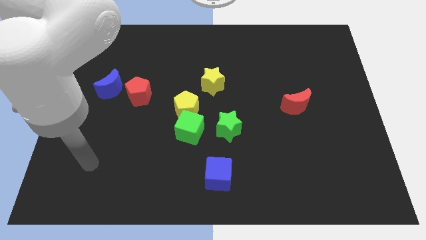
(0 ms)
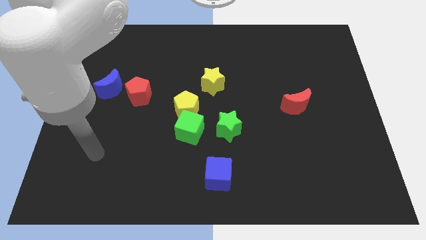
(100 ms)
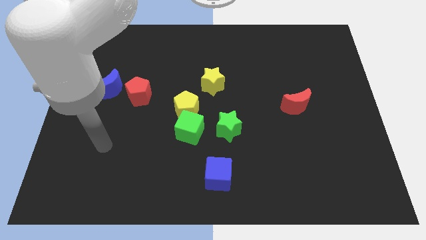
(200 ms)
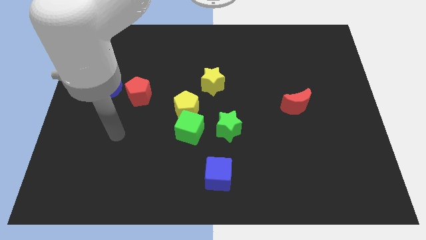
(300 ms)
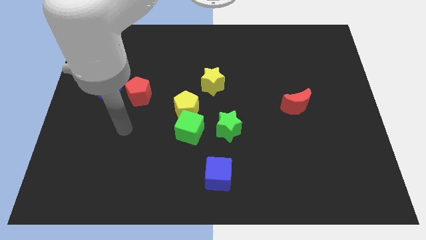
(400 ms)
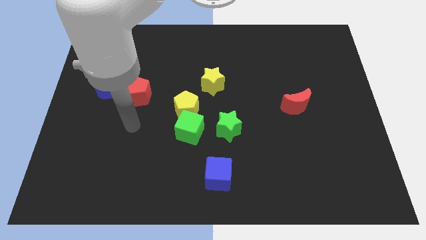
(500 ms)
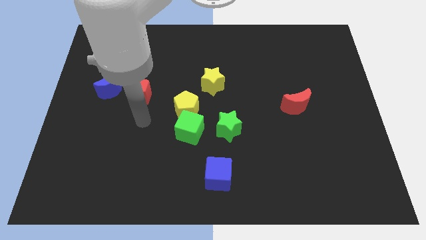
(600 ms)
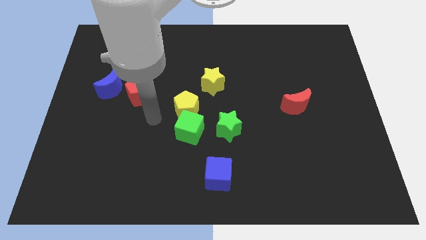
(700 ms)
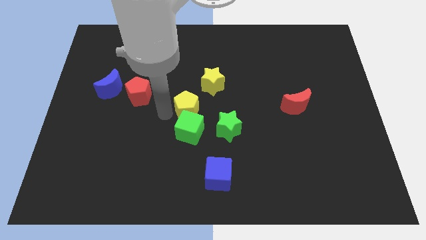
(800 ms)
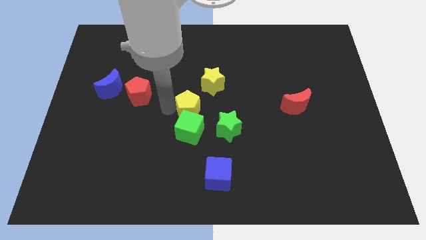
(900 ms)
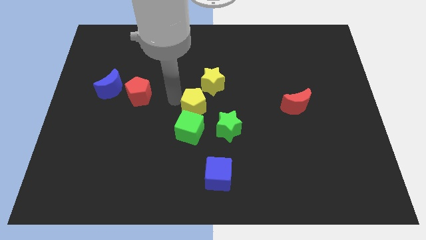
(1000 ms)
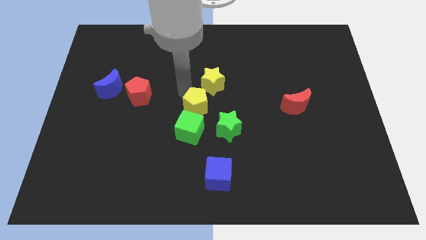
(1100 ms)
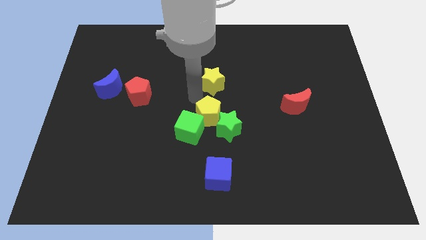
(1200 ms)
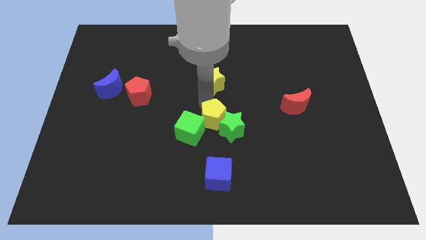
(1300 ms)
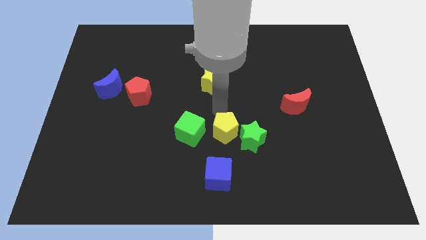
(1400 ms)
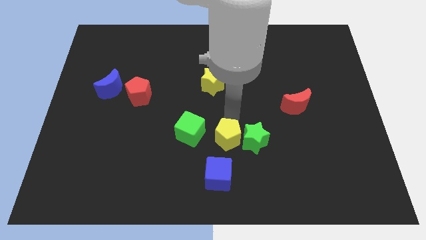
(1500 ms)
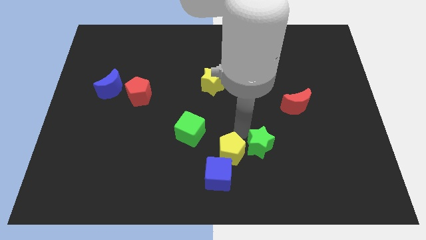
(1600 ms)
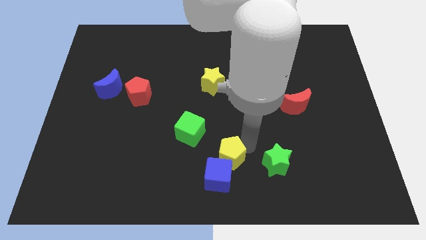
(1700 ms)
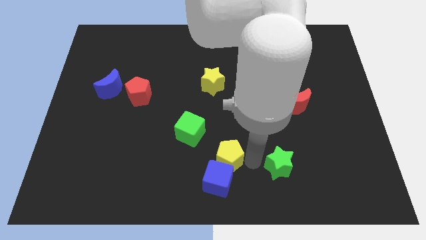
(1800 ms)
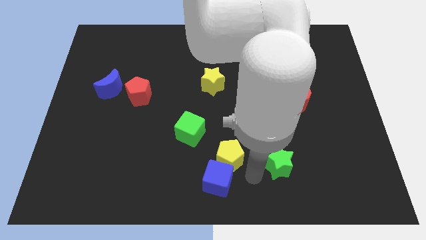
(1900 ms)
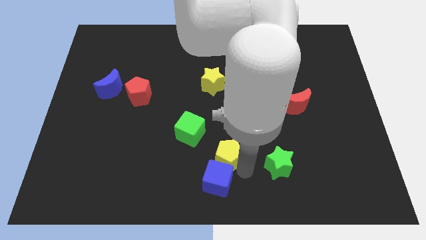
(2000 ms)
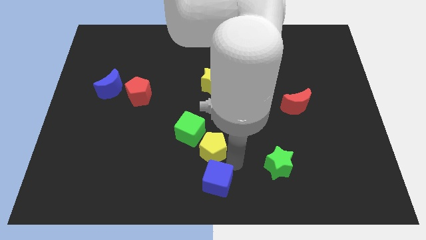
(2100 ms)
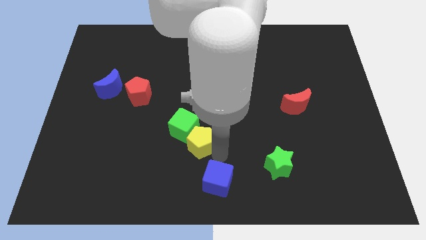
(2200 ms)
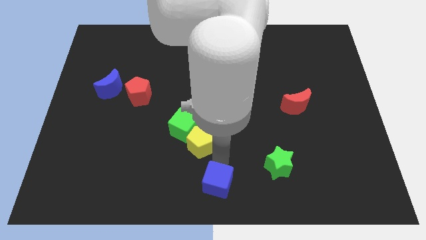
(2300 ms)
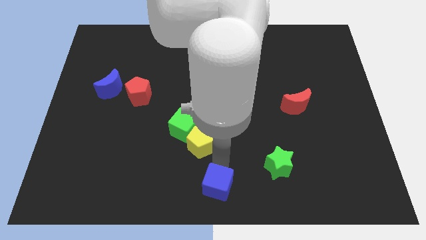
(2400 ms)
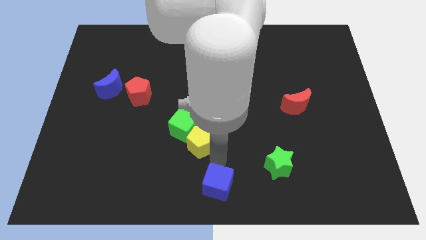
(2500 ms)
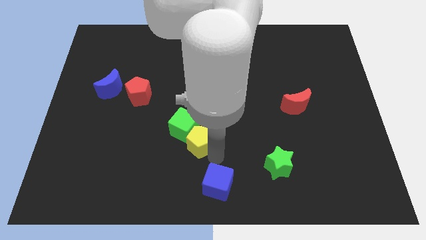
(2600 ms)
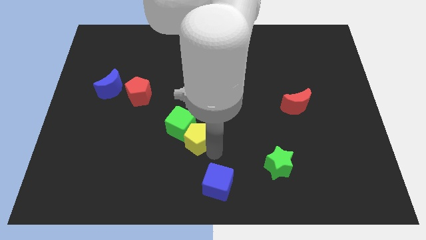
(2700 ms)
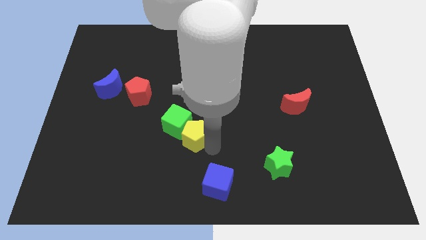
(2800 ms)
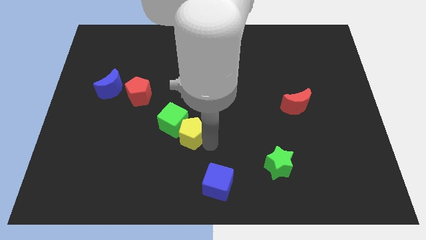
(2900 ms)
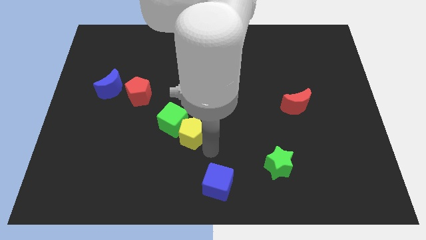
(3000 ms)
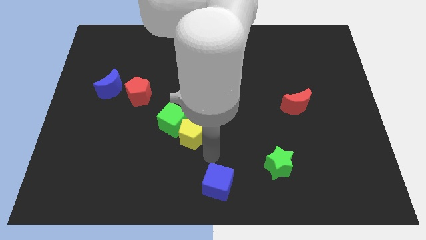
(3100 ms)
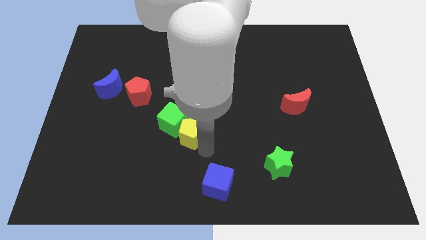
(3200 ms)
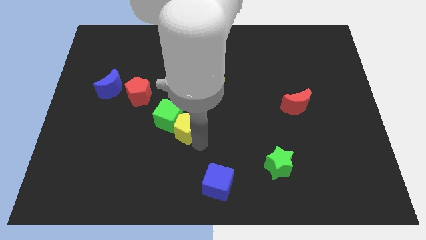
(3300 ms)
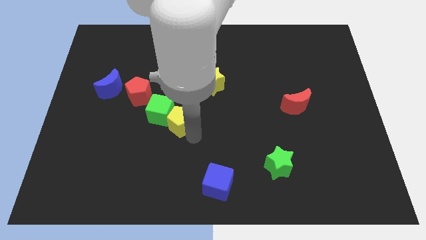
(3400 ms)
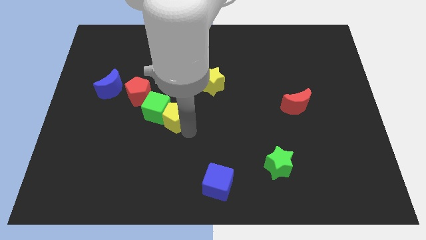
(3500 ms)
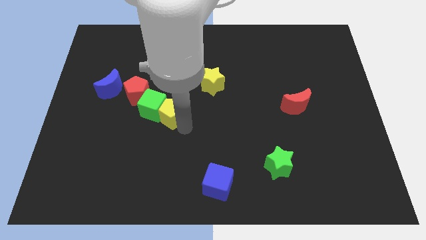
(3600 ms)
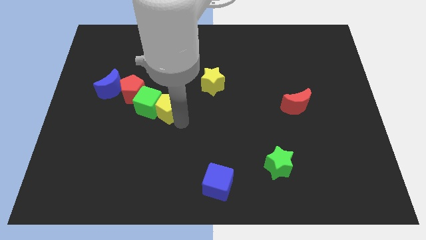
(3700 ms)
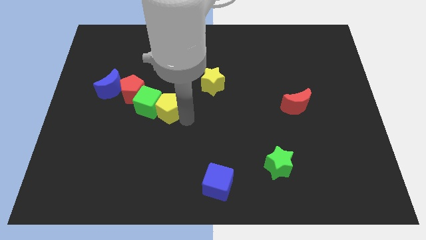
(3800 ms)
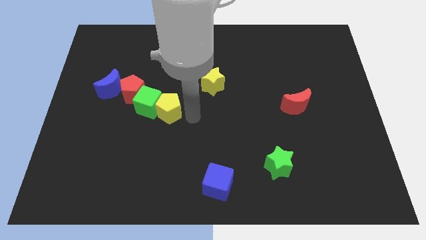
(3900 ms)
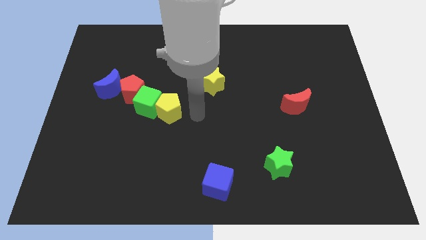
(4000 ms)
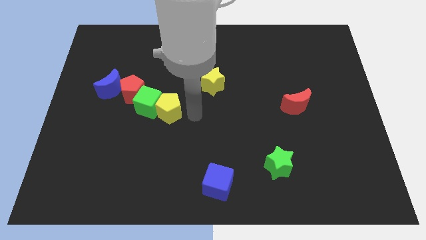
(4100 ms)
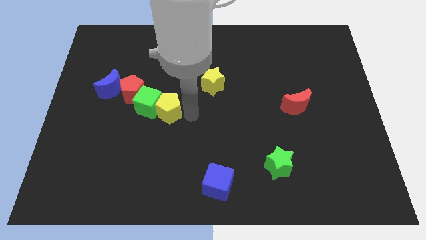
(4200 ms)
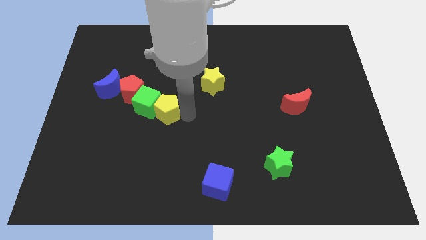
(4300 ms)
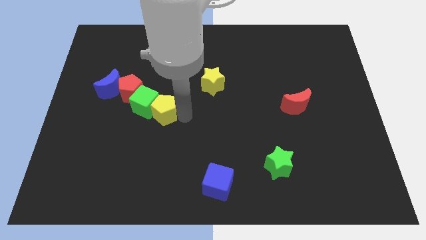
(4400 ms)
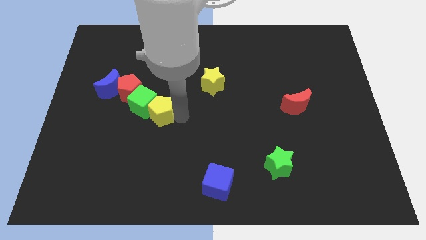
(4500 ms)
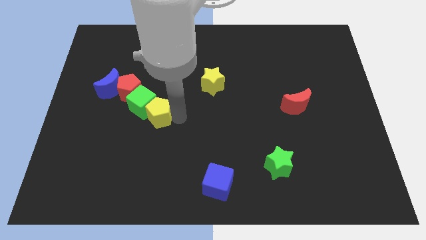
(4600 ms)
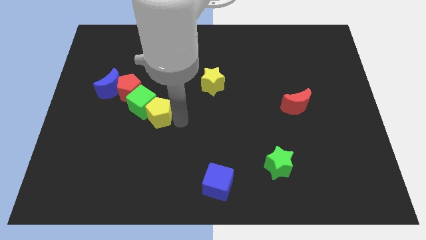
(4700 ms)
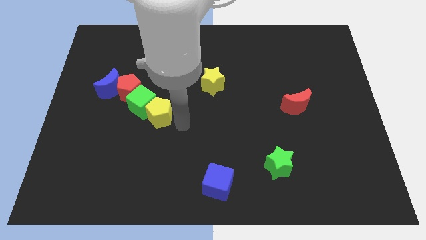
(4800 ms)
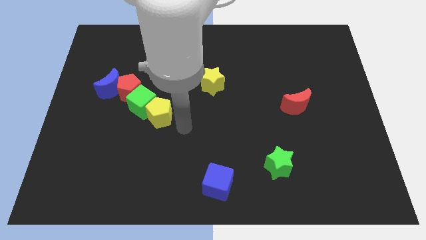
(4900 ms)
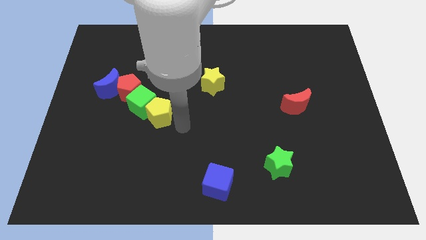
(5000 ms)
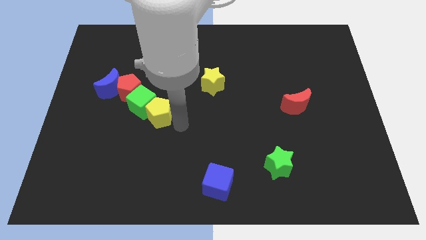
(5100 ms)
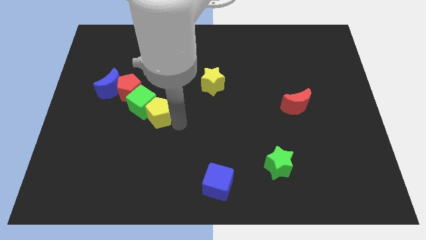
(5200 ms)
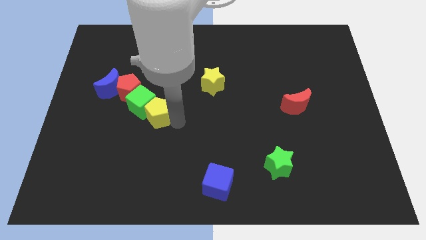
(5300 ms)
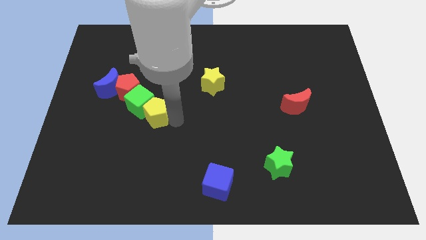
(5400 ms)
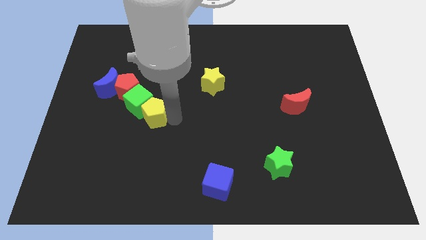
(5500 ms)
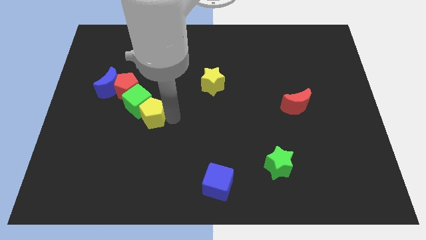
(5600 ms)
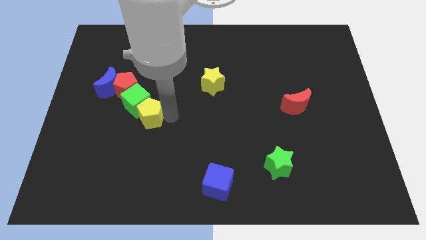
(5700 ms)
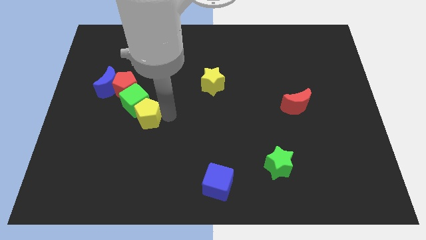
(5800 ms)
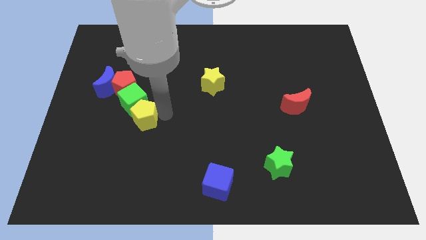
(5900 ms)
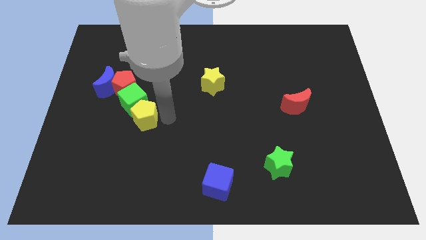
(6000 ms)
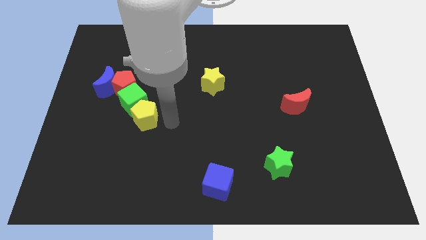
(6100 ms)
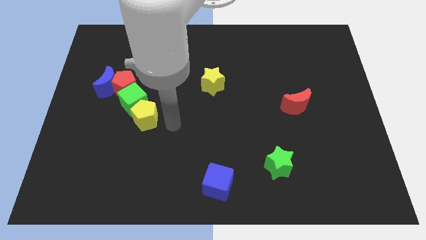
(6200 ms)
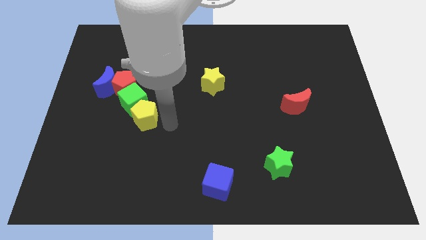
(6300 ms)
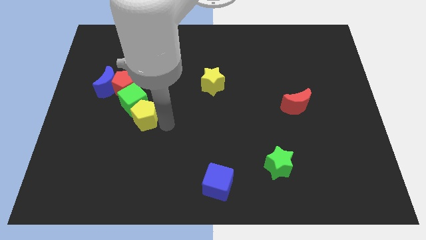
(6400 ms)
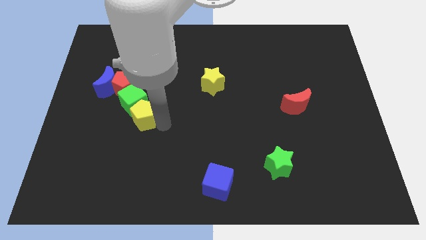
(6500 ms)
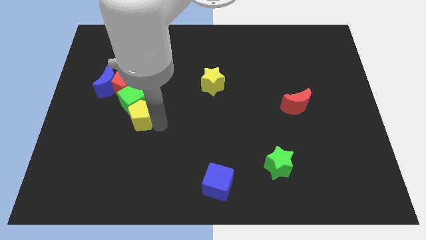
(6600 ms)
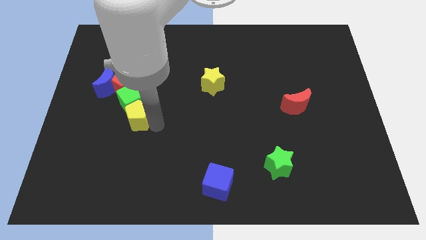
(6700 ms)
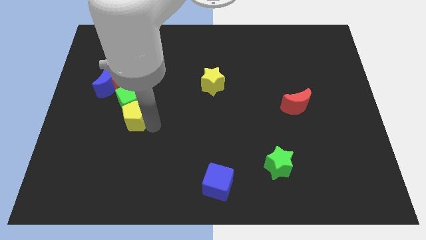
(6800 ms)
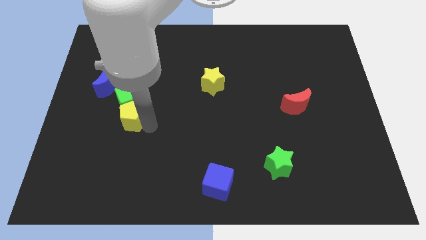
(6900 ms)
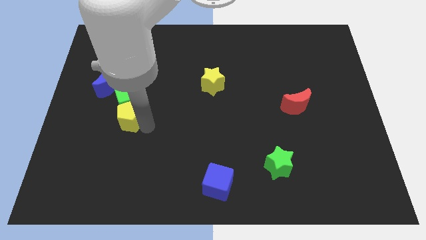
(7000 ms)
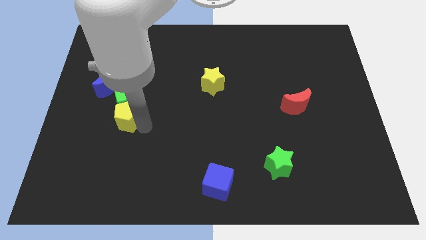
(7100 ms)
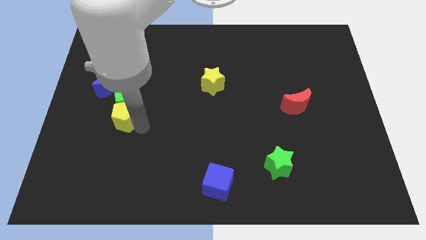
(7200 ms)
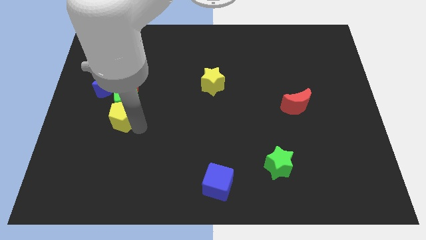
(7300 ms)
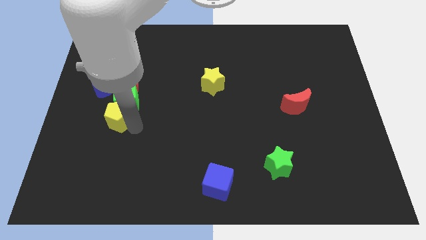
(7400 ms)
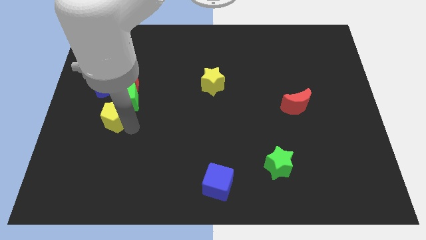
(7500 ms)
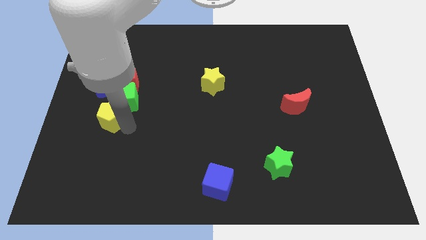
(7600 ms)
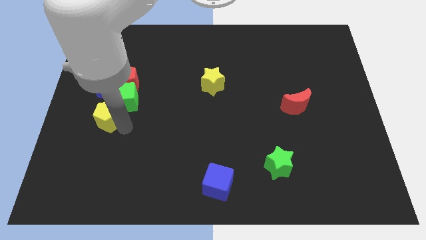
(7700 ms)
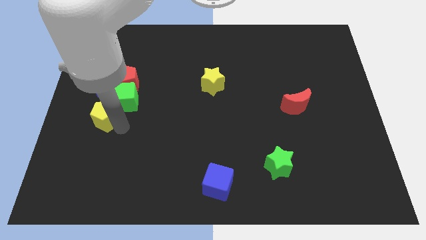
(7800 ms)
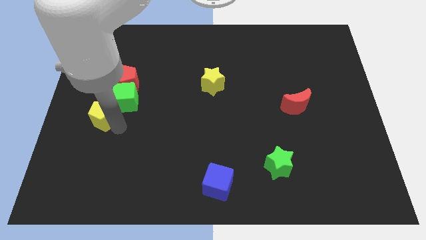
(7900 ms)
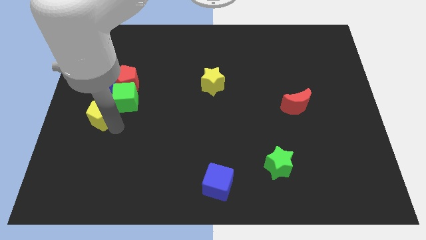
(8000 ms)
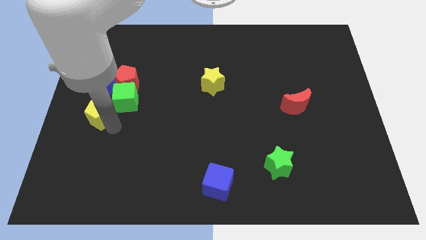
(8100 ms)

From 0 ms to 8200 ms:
put the yellow pentagon to the left side
